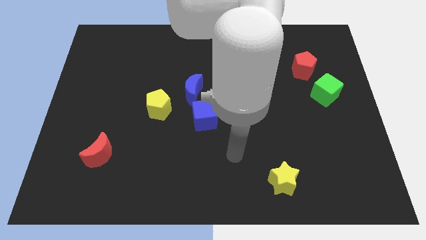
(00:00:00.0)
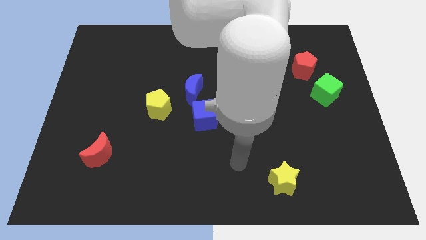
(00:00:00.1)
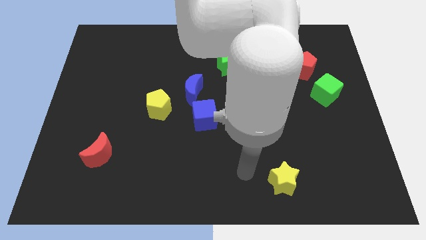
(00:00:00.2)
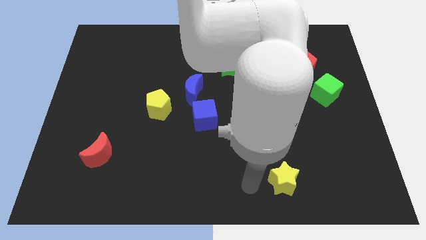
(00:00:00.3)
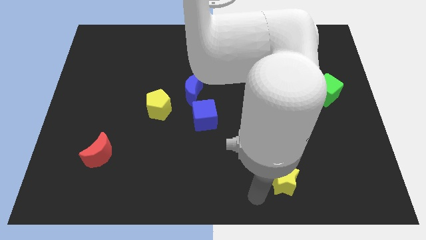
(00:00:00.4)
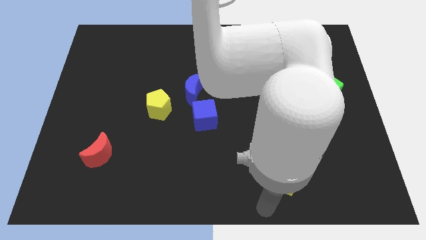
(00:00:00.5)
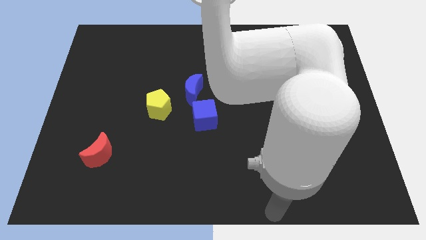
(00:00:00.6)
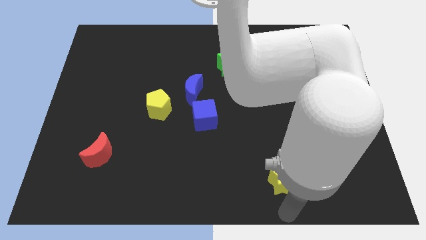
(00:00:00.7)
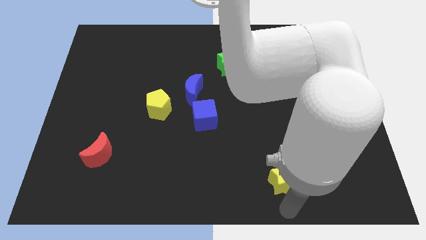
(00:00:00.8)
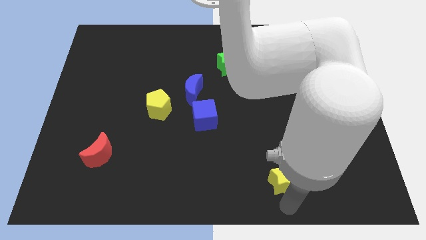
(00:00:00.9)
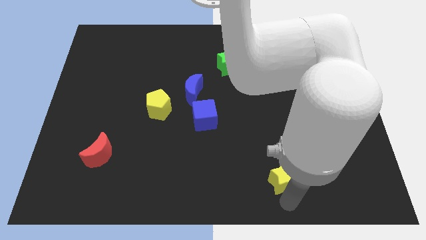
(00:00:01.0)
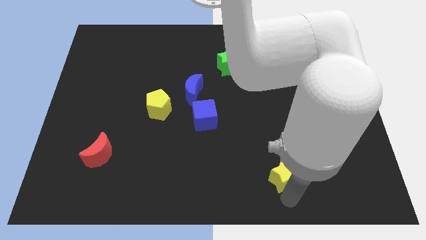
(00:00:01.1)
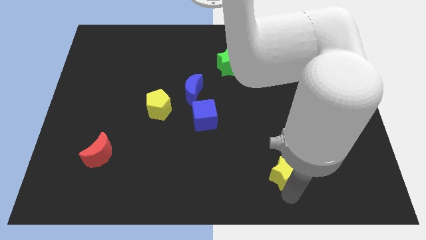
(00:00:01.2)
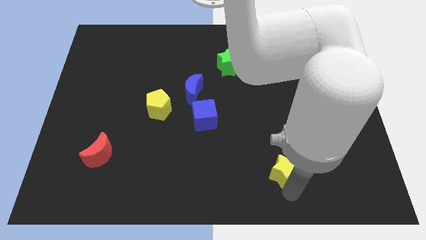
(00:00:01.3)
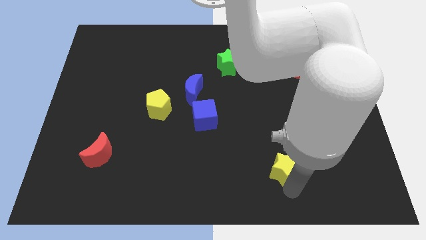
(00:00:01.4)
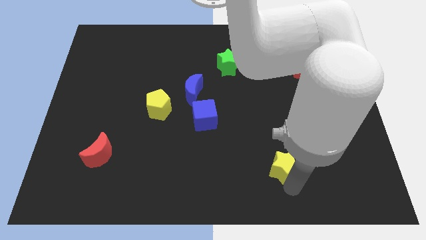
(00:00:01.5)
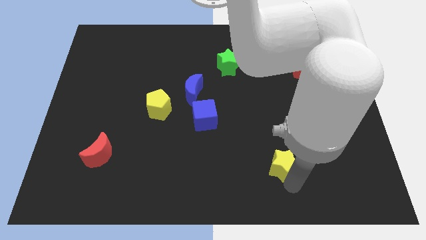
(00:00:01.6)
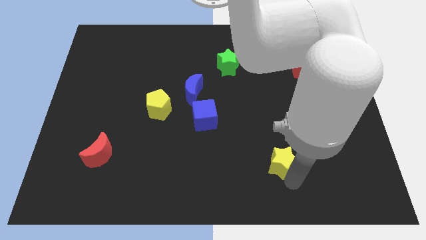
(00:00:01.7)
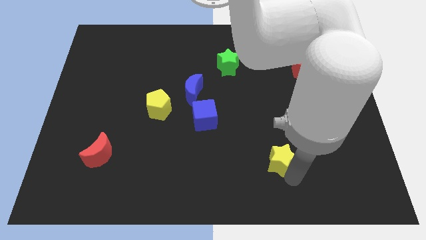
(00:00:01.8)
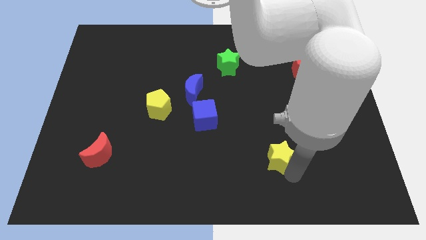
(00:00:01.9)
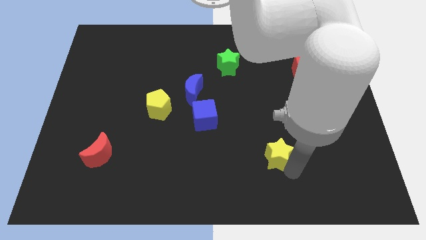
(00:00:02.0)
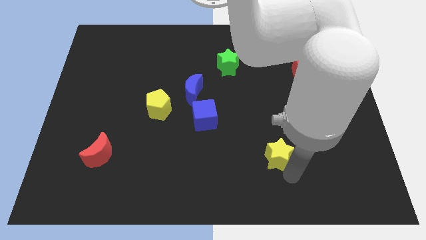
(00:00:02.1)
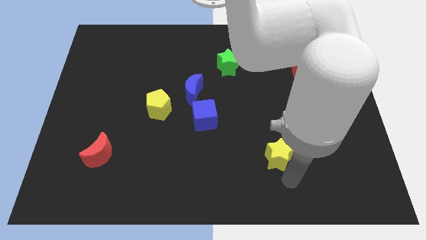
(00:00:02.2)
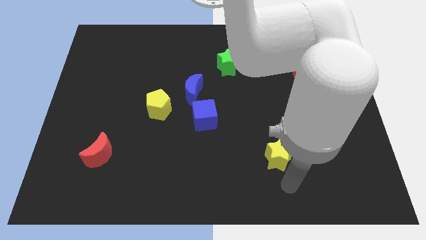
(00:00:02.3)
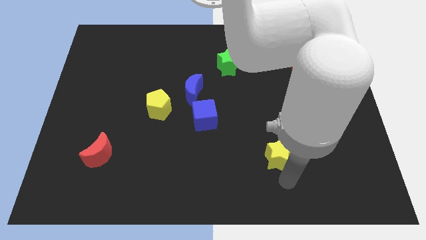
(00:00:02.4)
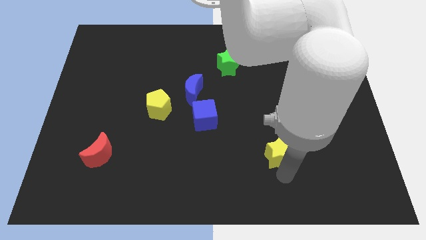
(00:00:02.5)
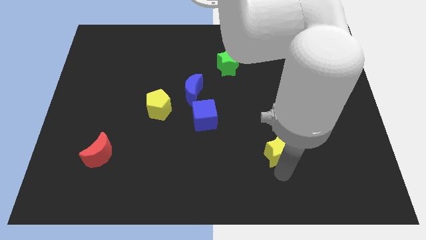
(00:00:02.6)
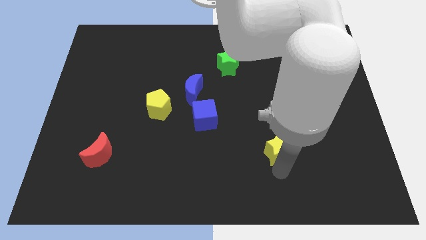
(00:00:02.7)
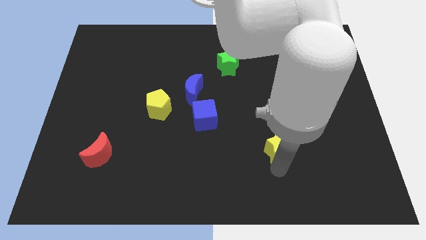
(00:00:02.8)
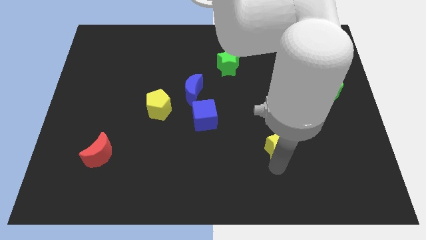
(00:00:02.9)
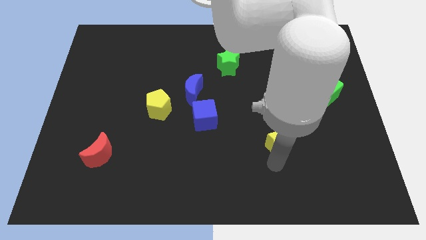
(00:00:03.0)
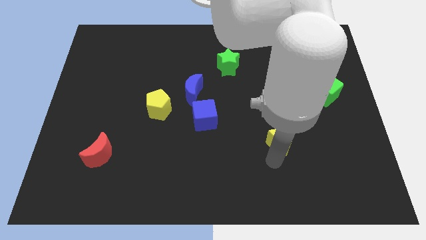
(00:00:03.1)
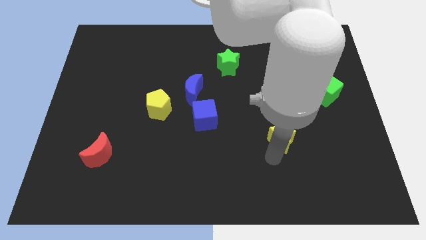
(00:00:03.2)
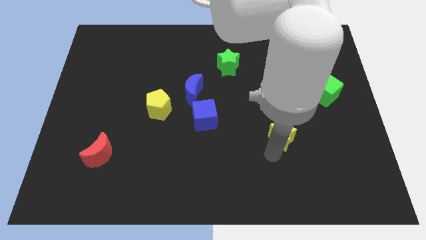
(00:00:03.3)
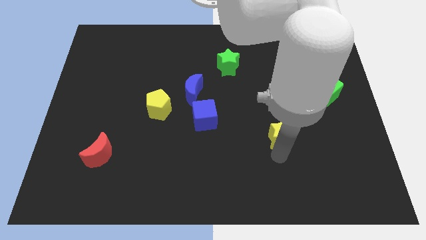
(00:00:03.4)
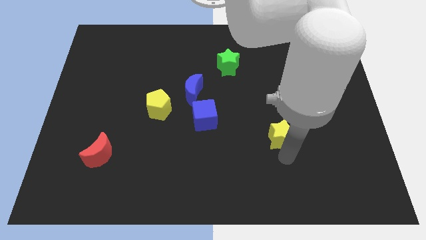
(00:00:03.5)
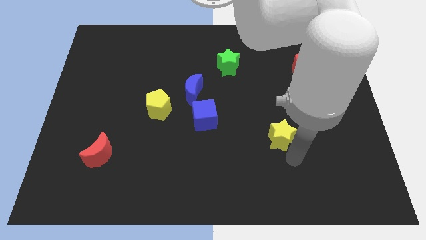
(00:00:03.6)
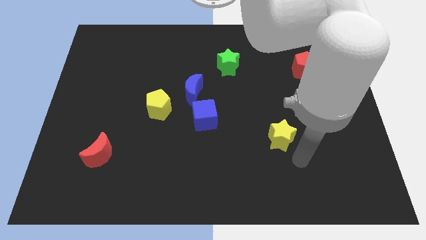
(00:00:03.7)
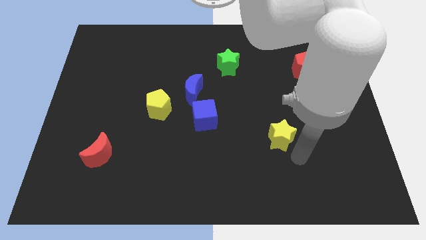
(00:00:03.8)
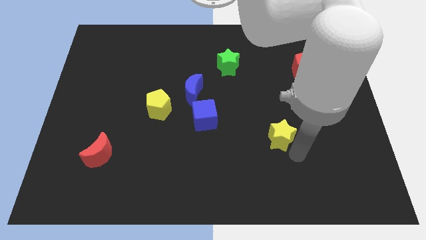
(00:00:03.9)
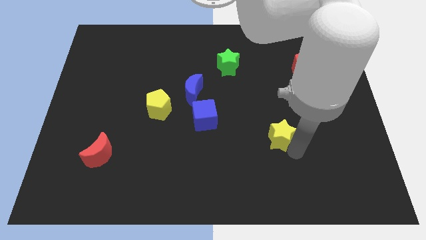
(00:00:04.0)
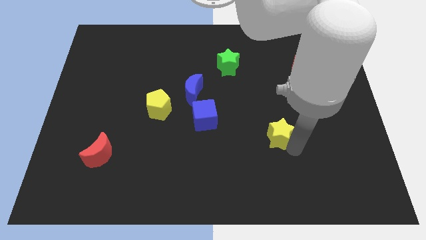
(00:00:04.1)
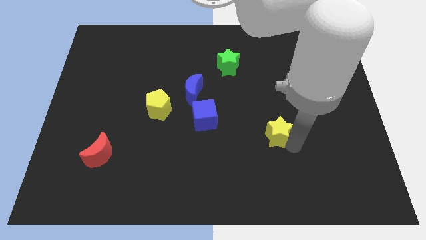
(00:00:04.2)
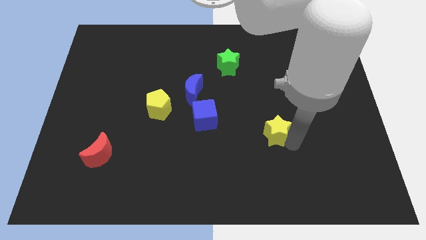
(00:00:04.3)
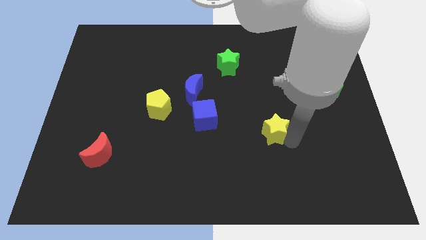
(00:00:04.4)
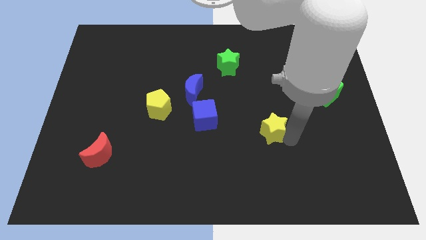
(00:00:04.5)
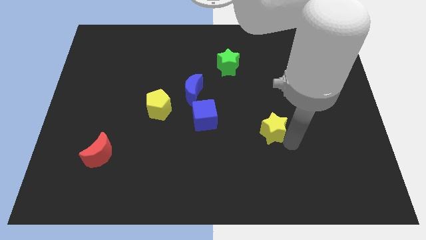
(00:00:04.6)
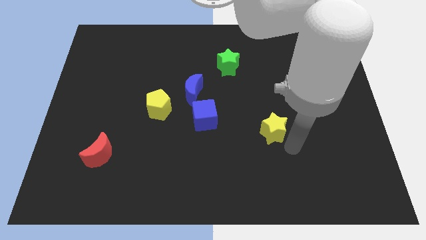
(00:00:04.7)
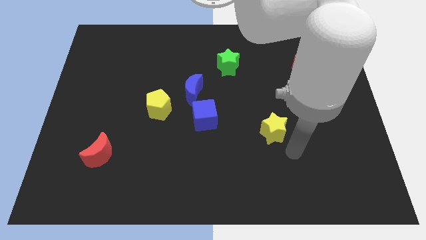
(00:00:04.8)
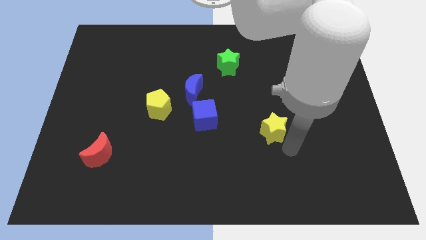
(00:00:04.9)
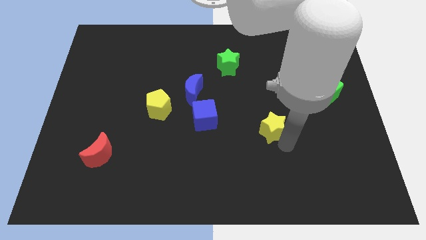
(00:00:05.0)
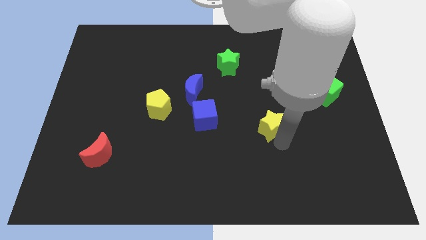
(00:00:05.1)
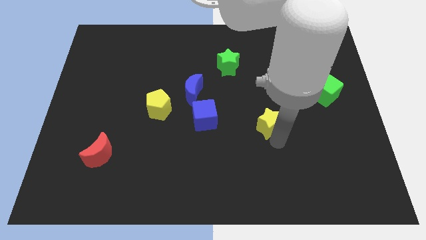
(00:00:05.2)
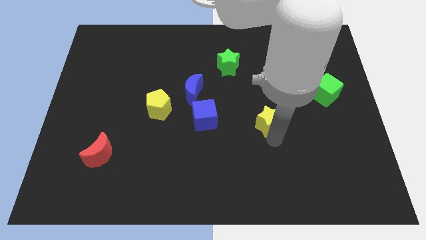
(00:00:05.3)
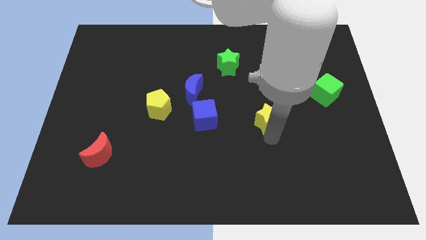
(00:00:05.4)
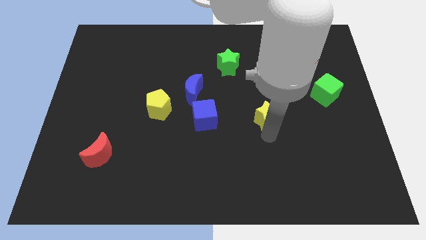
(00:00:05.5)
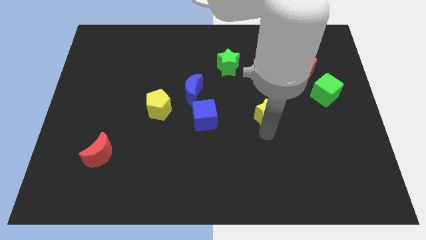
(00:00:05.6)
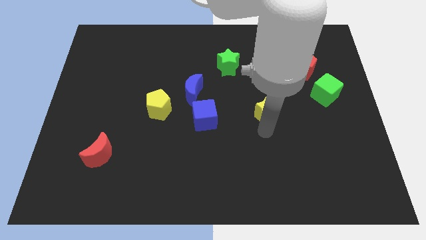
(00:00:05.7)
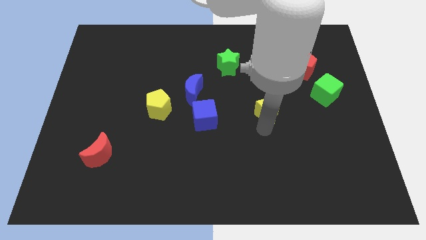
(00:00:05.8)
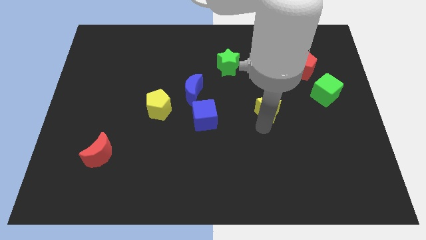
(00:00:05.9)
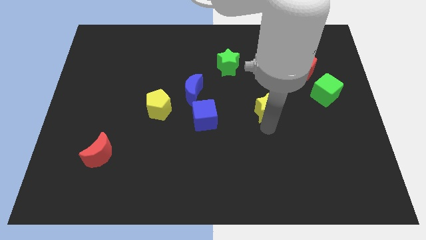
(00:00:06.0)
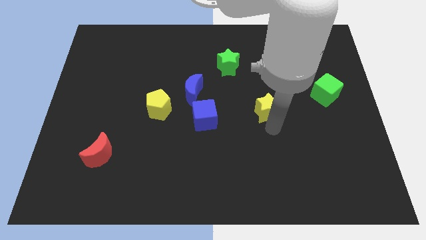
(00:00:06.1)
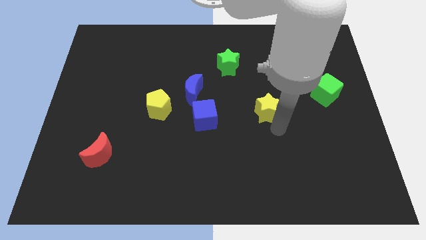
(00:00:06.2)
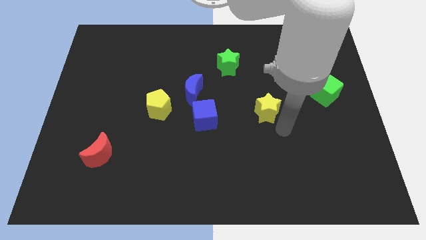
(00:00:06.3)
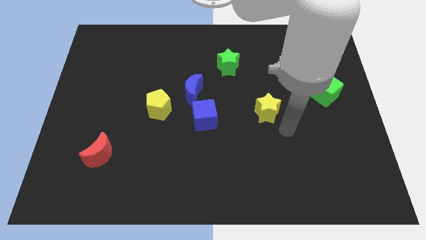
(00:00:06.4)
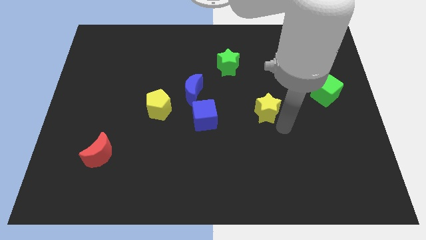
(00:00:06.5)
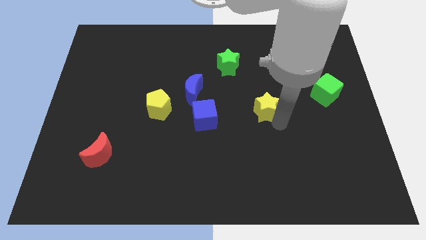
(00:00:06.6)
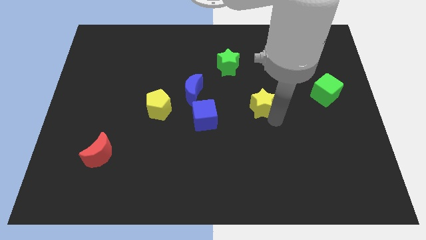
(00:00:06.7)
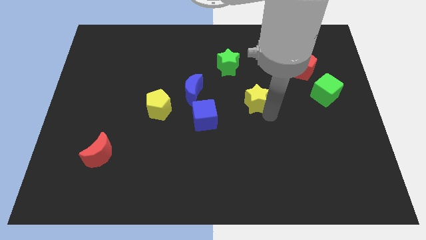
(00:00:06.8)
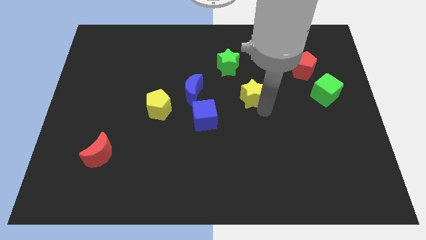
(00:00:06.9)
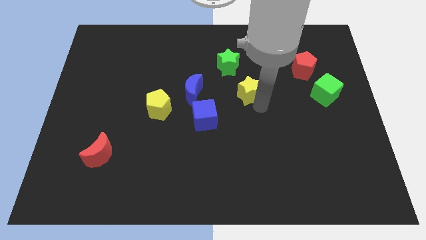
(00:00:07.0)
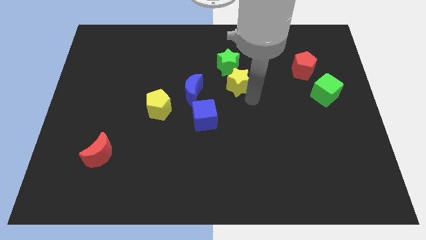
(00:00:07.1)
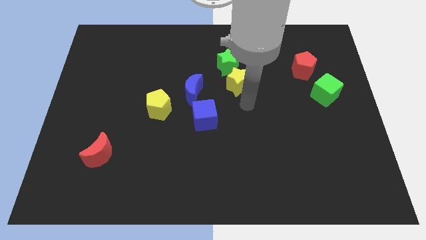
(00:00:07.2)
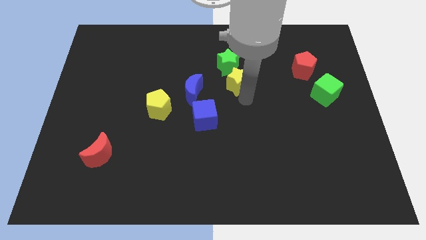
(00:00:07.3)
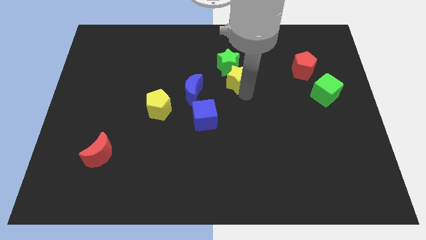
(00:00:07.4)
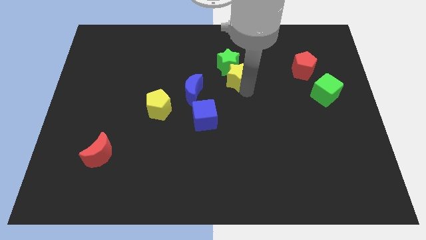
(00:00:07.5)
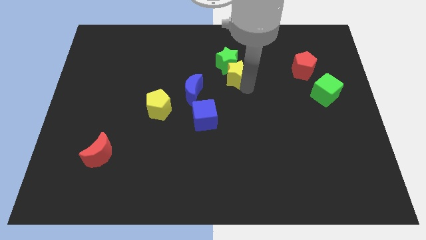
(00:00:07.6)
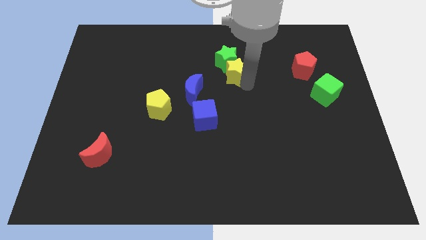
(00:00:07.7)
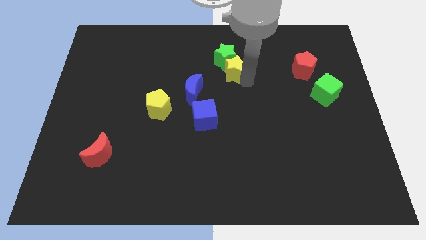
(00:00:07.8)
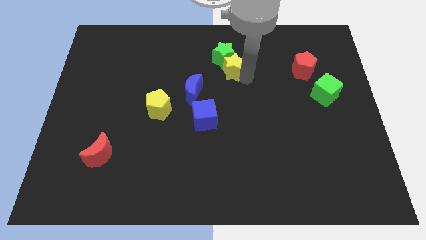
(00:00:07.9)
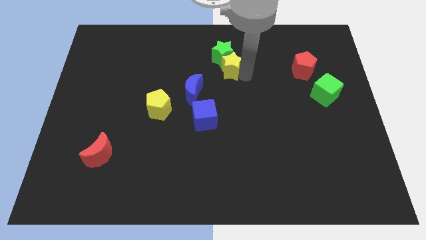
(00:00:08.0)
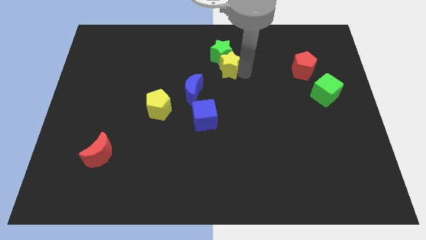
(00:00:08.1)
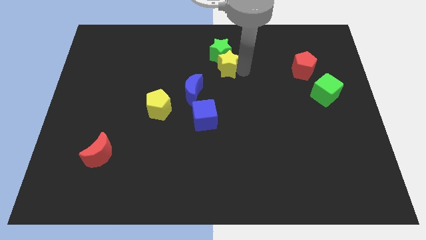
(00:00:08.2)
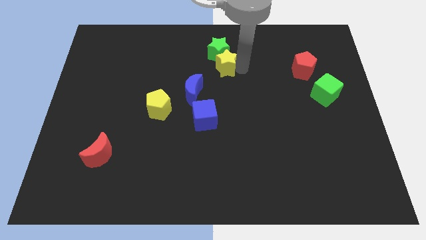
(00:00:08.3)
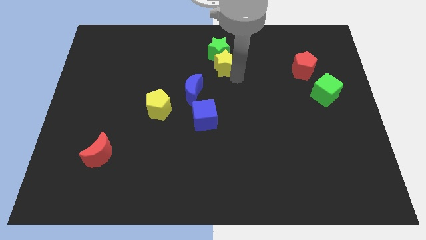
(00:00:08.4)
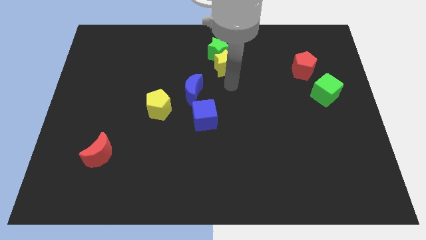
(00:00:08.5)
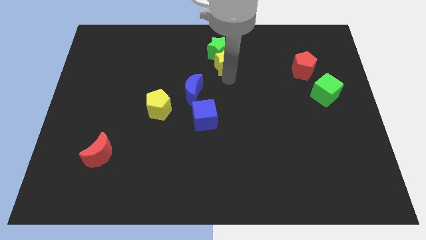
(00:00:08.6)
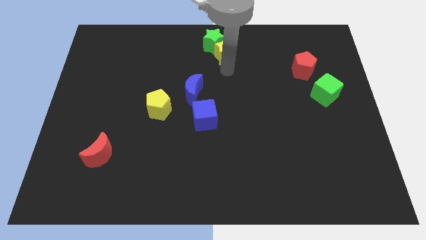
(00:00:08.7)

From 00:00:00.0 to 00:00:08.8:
push the yellow star to the towards your base
